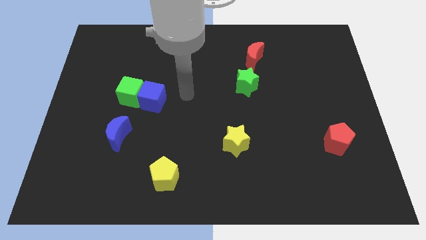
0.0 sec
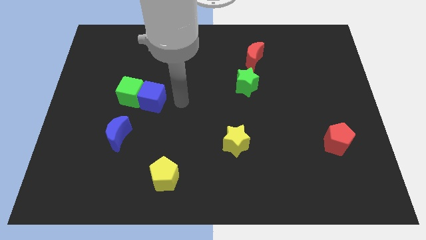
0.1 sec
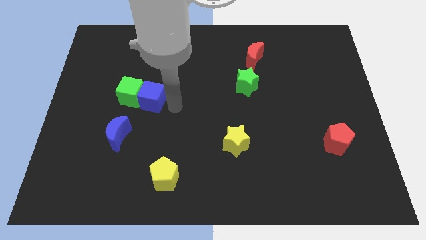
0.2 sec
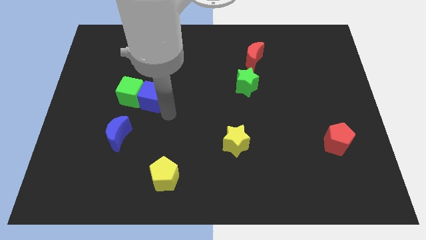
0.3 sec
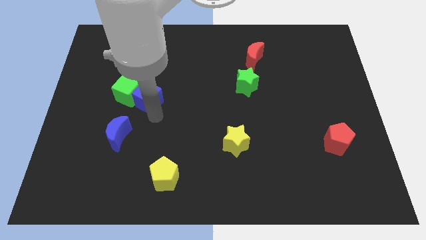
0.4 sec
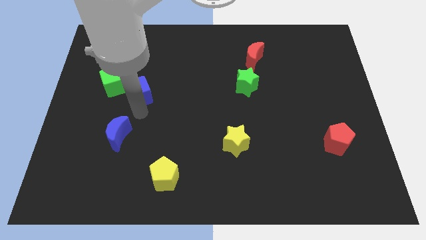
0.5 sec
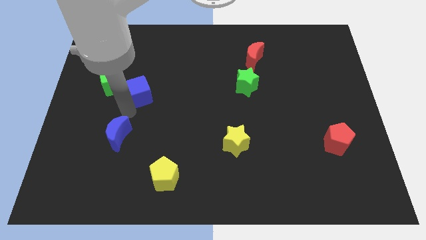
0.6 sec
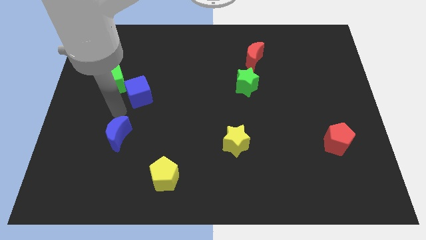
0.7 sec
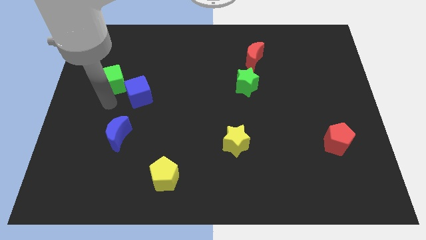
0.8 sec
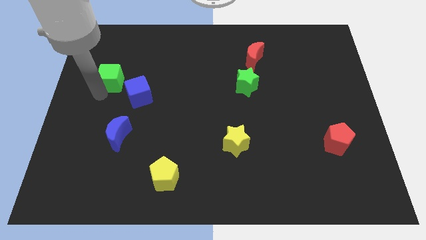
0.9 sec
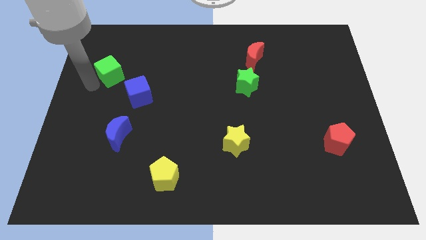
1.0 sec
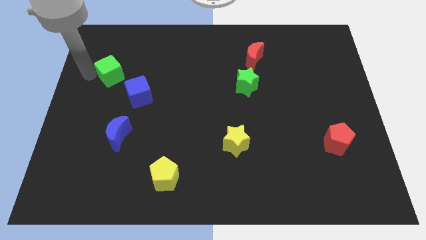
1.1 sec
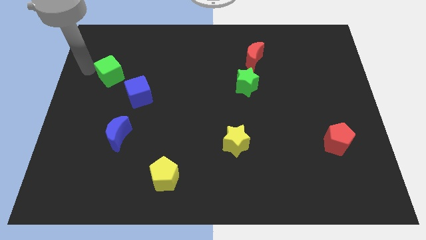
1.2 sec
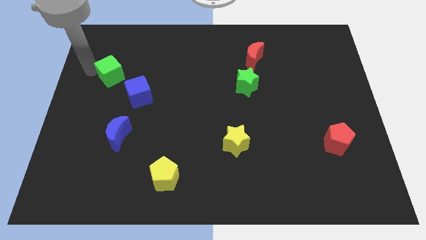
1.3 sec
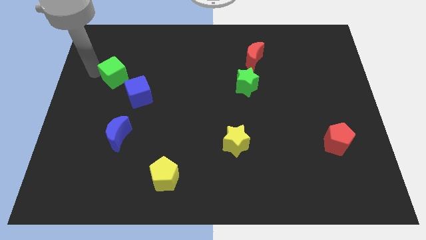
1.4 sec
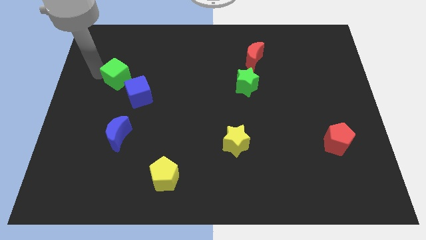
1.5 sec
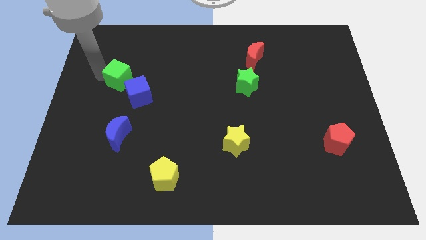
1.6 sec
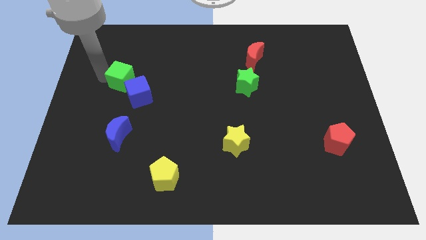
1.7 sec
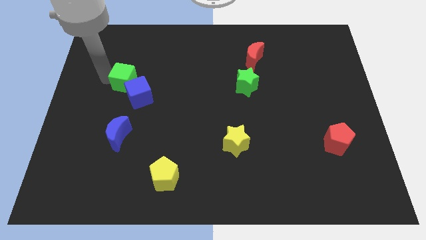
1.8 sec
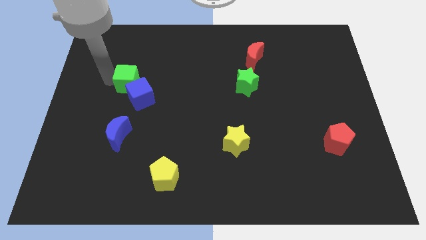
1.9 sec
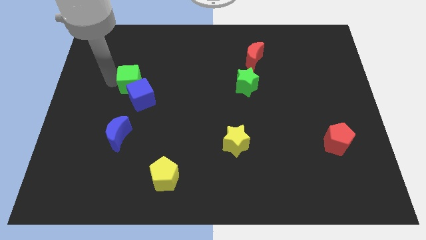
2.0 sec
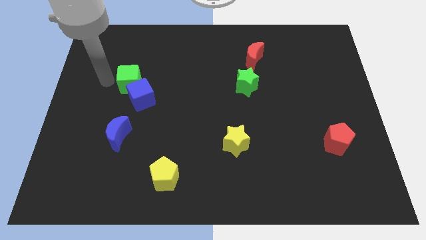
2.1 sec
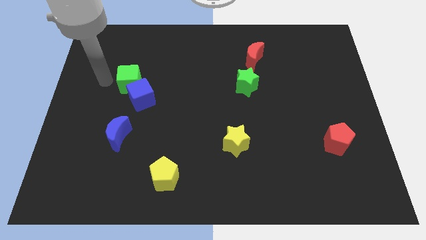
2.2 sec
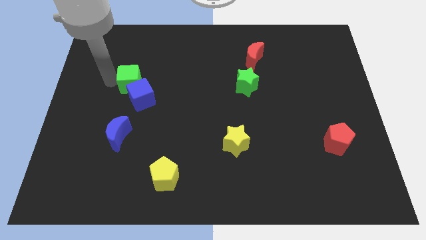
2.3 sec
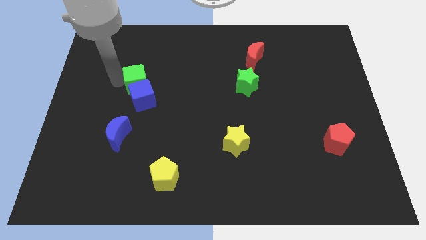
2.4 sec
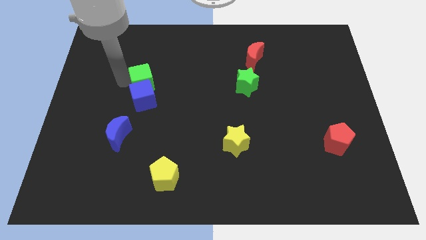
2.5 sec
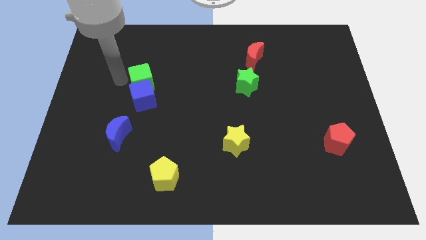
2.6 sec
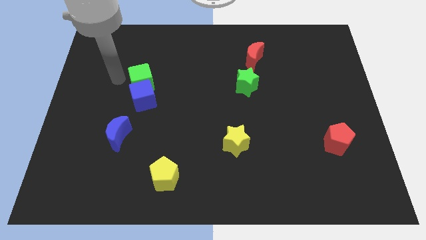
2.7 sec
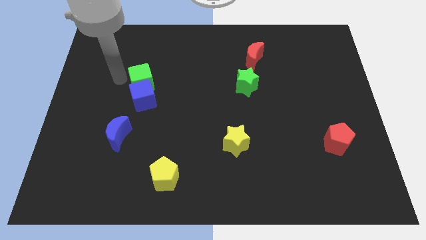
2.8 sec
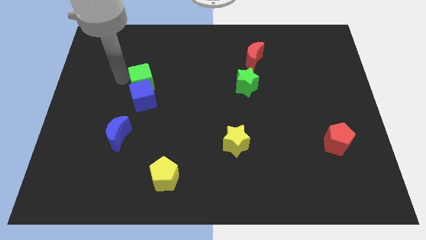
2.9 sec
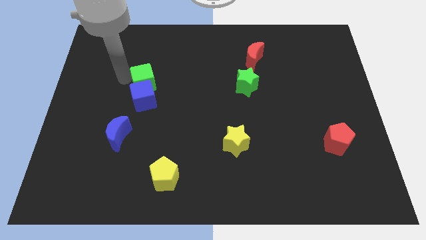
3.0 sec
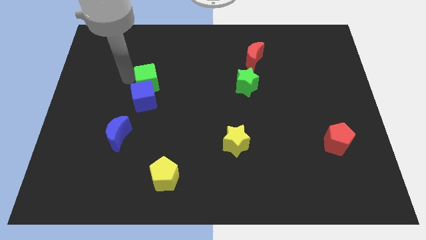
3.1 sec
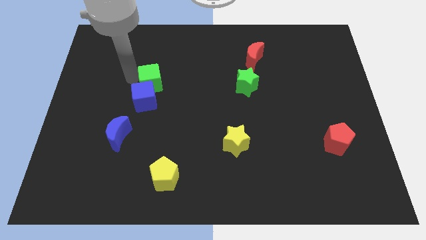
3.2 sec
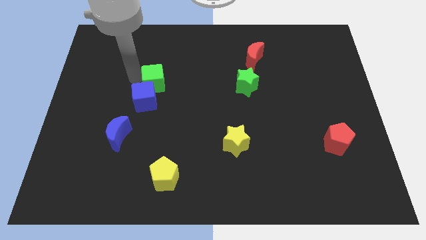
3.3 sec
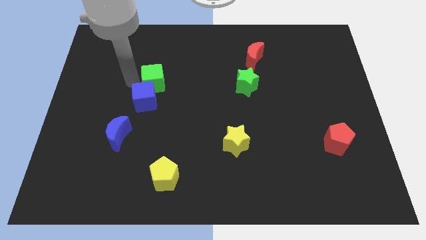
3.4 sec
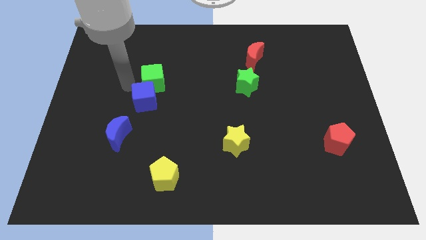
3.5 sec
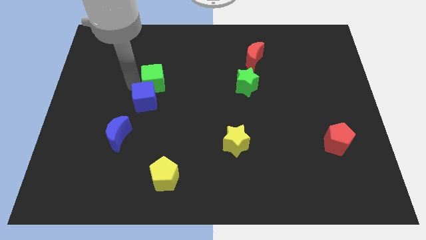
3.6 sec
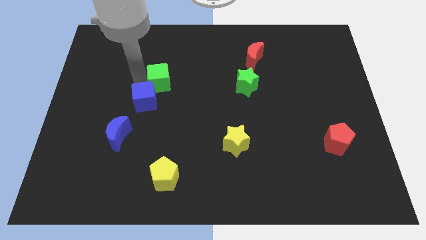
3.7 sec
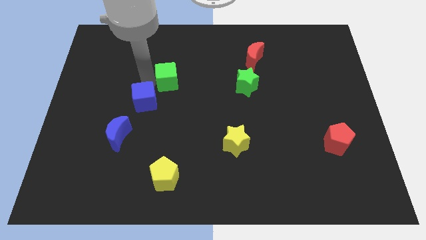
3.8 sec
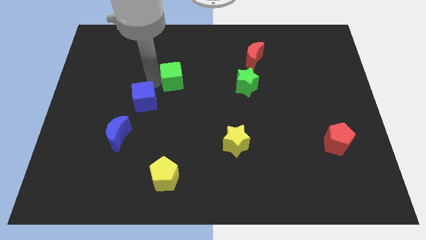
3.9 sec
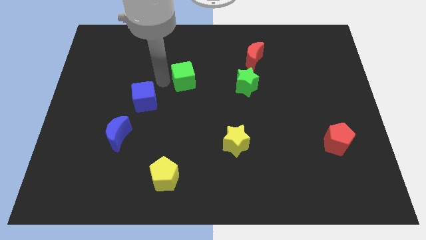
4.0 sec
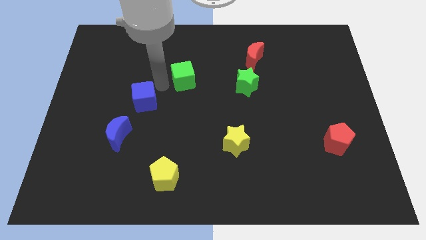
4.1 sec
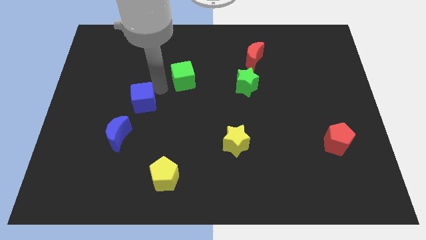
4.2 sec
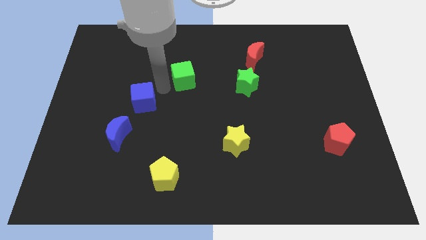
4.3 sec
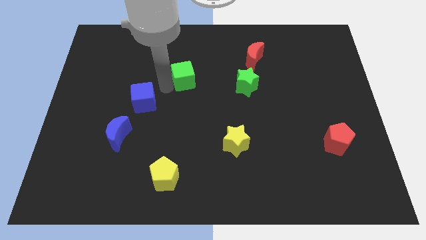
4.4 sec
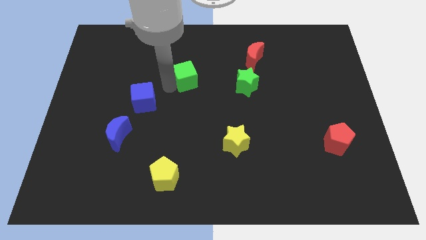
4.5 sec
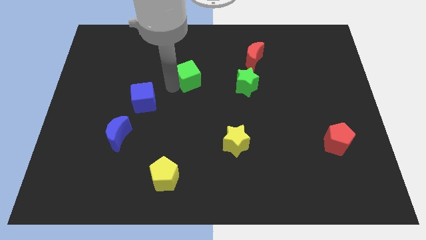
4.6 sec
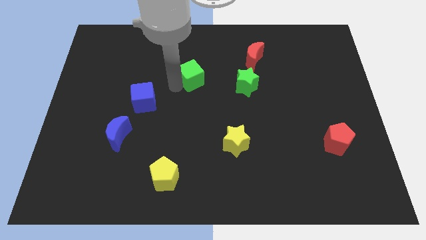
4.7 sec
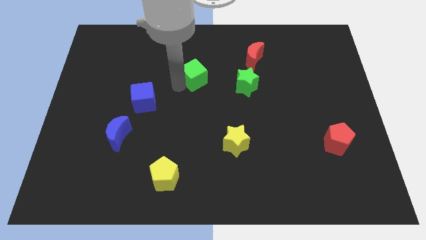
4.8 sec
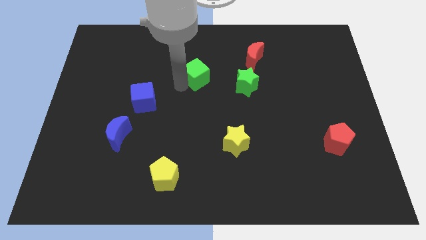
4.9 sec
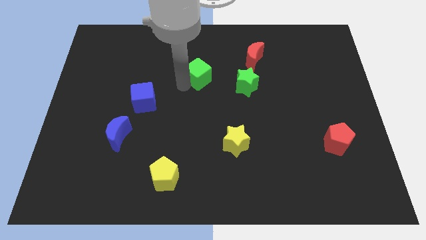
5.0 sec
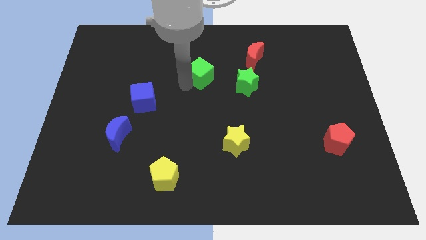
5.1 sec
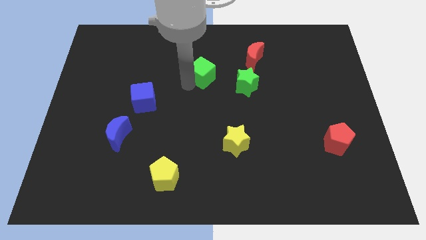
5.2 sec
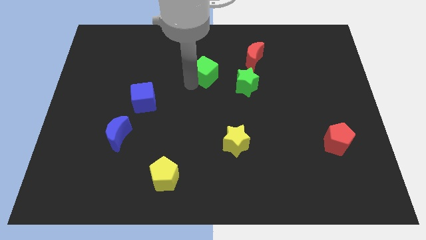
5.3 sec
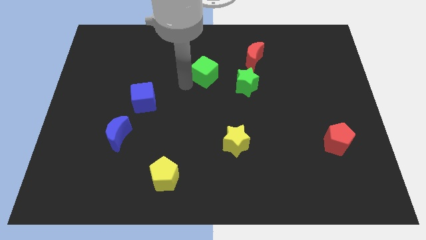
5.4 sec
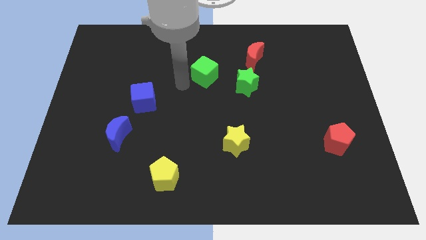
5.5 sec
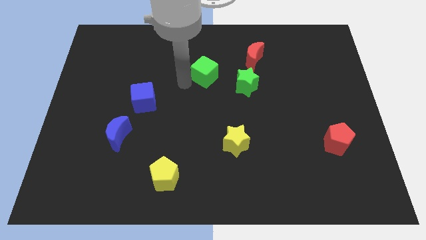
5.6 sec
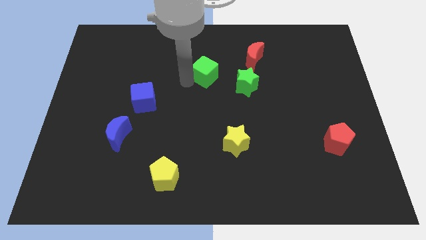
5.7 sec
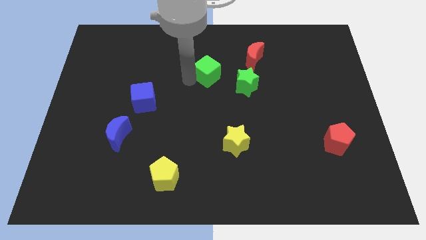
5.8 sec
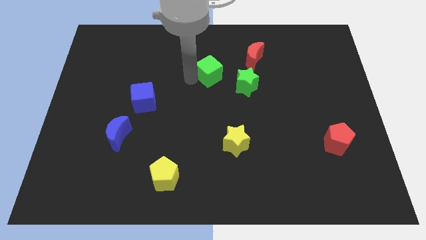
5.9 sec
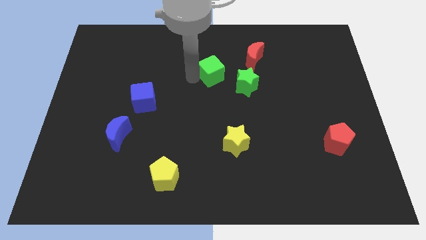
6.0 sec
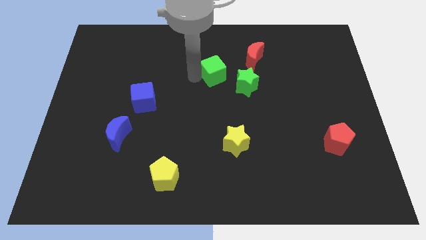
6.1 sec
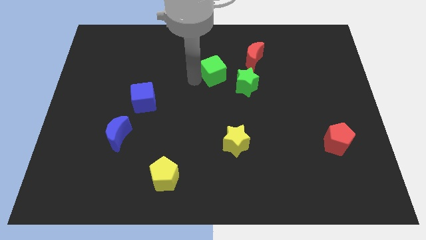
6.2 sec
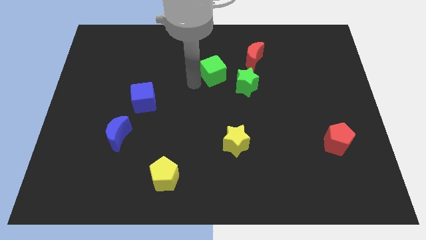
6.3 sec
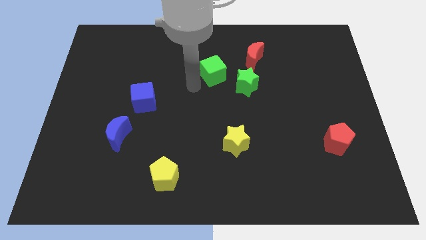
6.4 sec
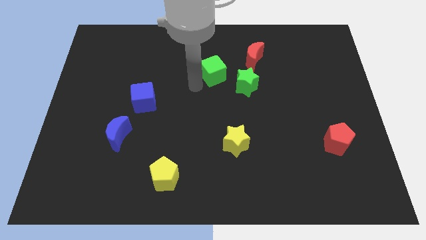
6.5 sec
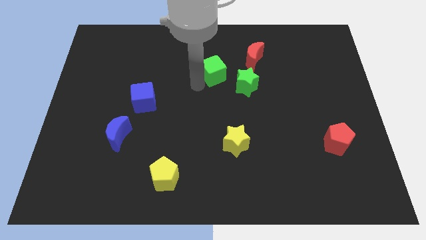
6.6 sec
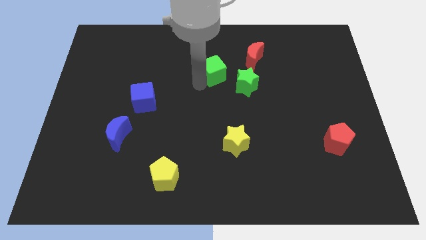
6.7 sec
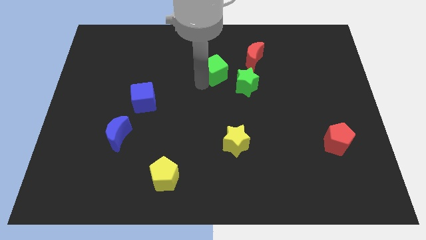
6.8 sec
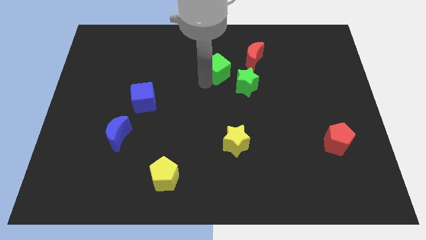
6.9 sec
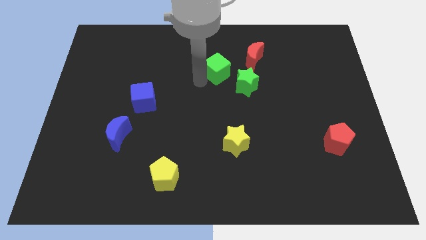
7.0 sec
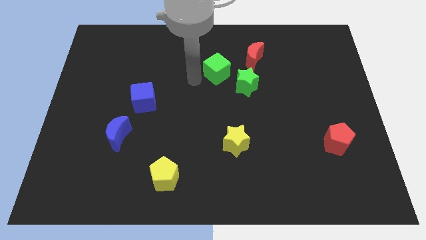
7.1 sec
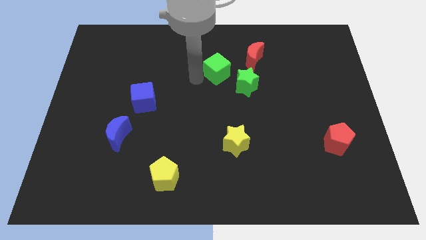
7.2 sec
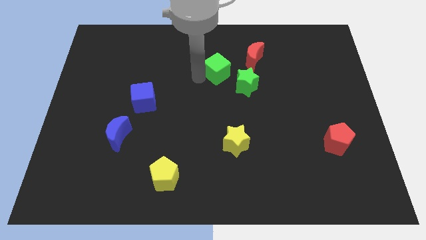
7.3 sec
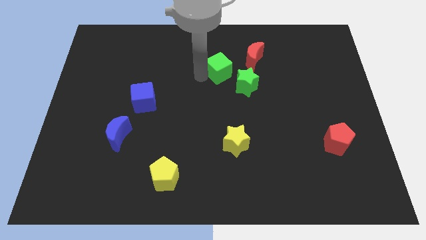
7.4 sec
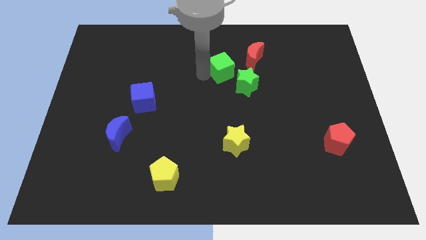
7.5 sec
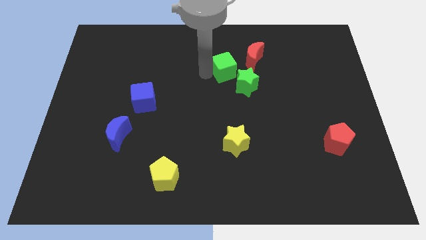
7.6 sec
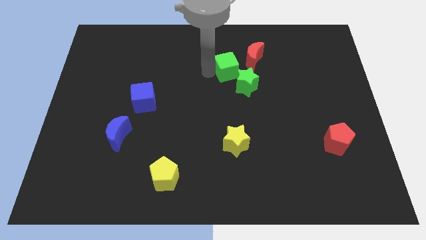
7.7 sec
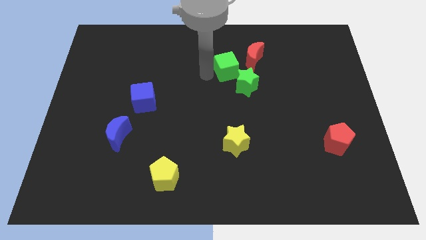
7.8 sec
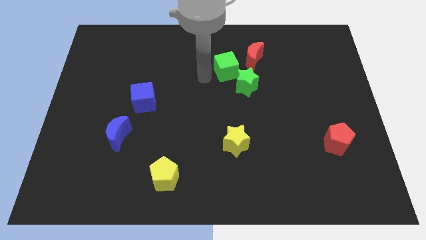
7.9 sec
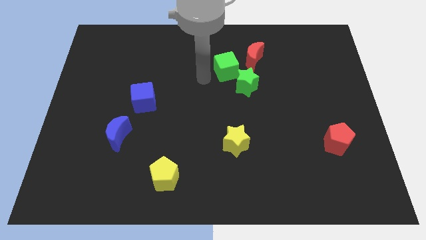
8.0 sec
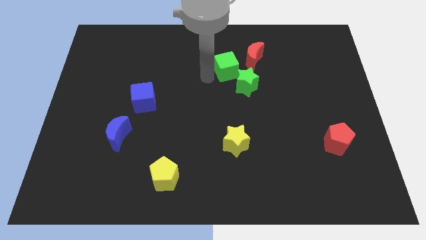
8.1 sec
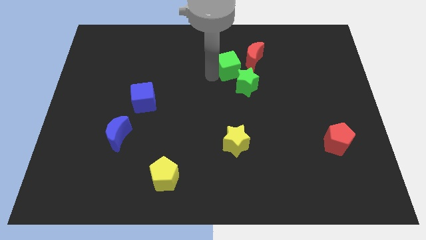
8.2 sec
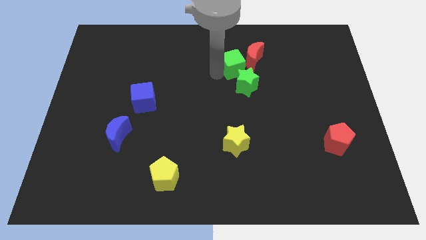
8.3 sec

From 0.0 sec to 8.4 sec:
slide the green cube close to the red moon
